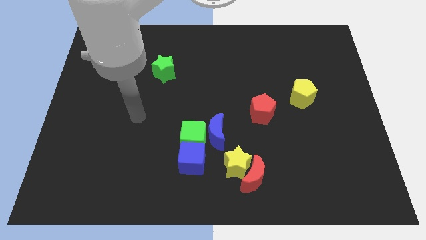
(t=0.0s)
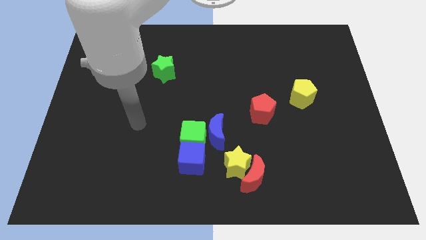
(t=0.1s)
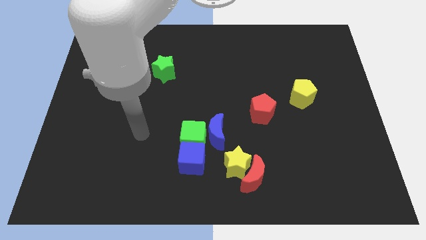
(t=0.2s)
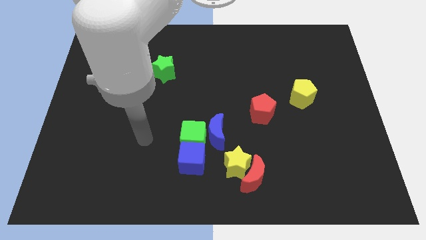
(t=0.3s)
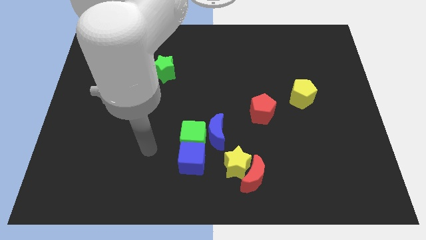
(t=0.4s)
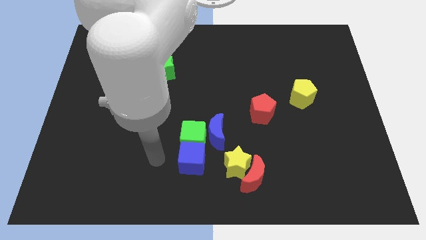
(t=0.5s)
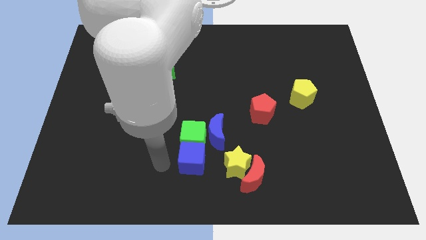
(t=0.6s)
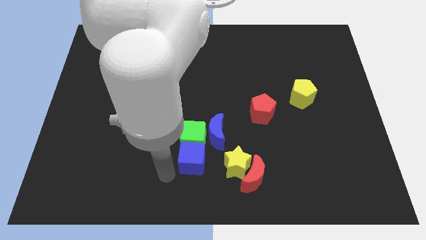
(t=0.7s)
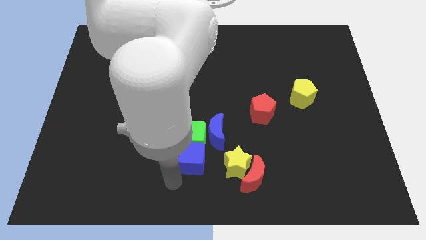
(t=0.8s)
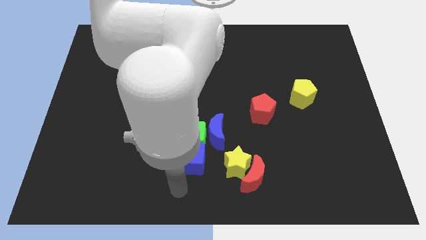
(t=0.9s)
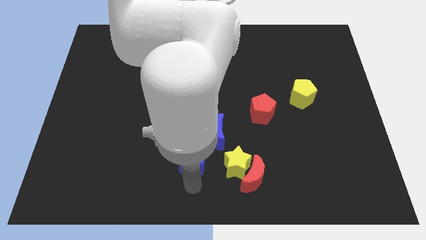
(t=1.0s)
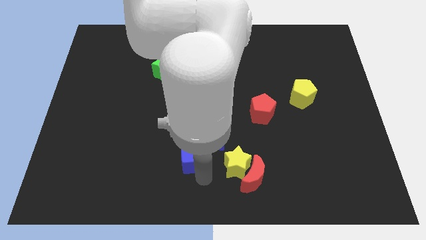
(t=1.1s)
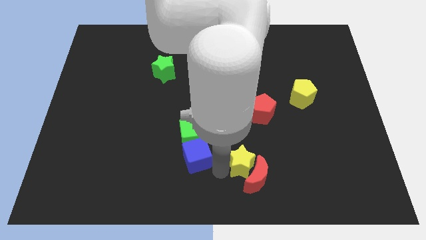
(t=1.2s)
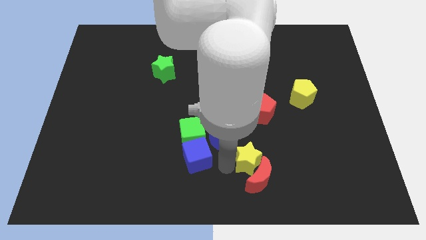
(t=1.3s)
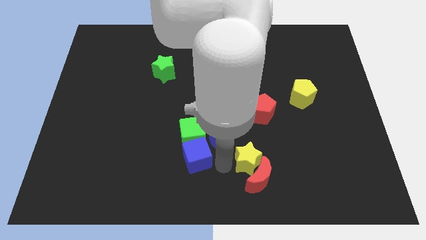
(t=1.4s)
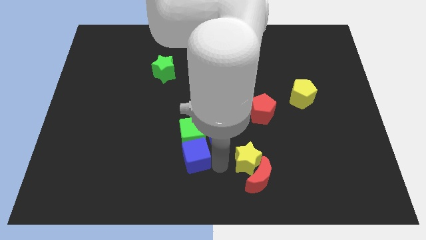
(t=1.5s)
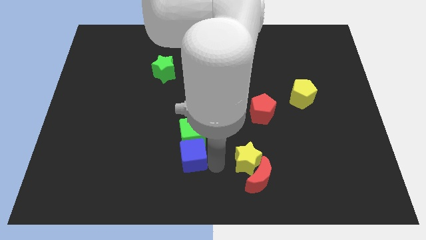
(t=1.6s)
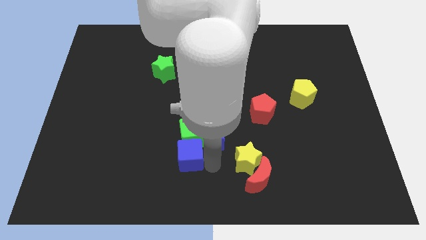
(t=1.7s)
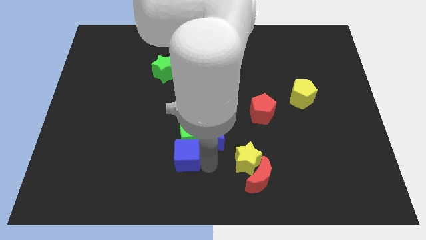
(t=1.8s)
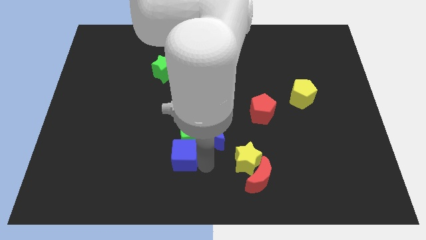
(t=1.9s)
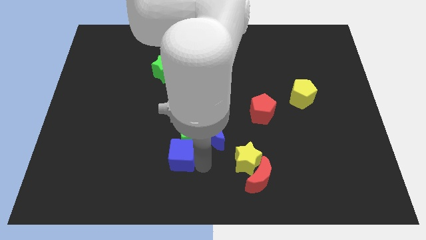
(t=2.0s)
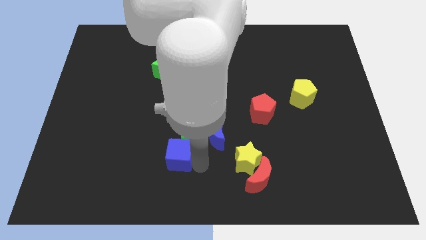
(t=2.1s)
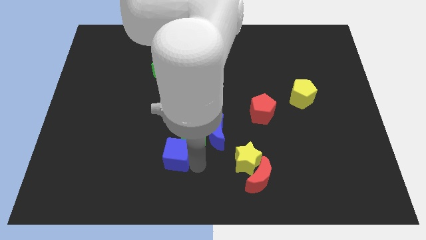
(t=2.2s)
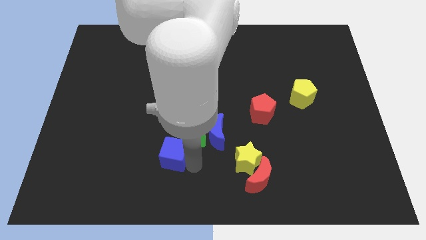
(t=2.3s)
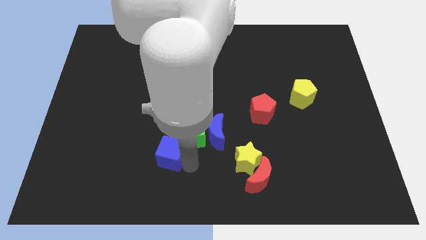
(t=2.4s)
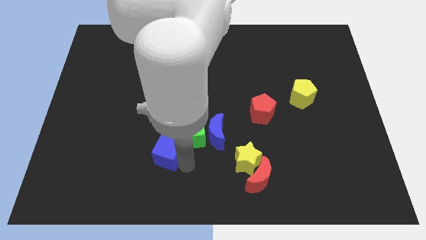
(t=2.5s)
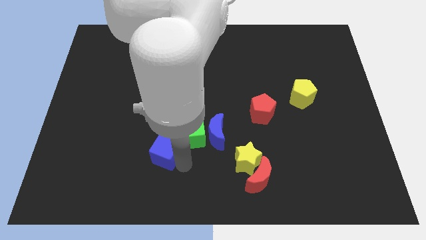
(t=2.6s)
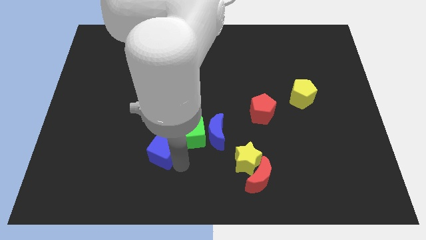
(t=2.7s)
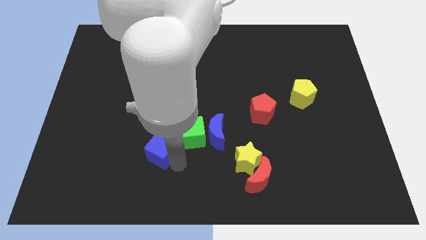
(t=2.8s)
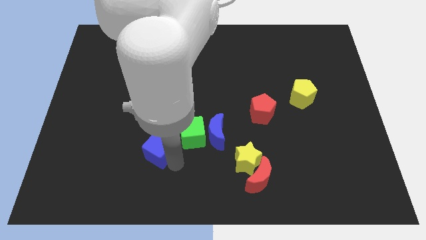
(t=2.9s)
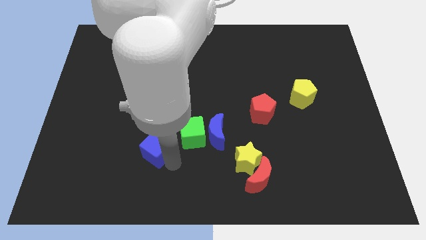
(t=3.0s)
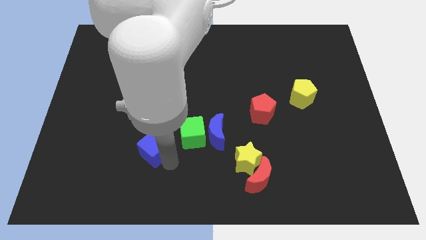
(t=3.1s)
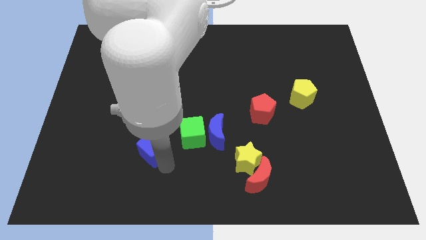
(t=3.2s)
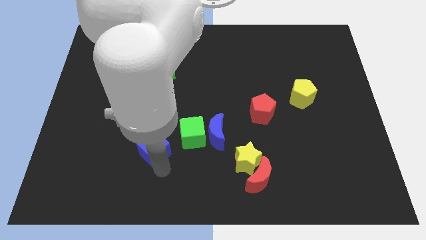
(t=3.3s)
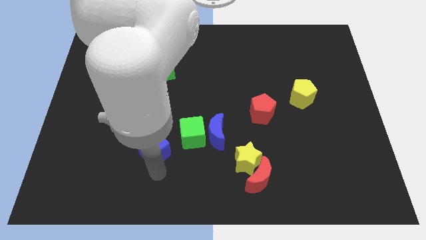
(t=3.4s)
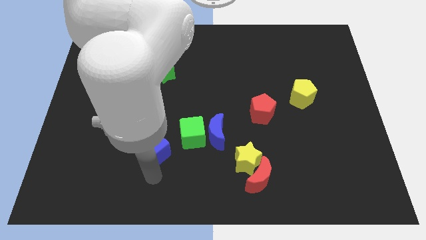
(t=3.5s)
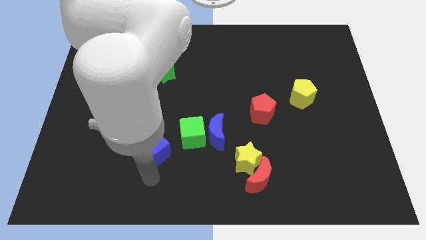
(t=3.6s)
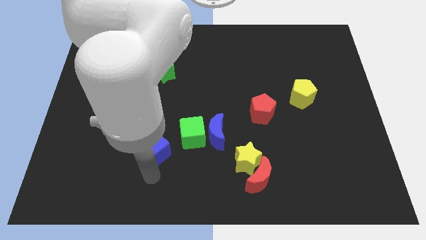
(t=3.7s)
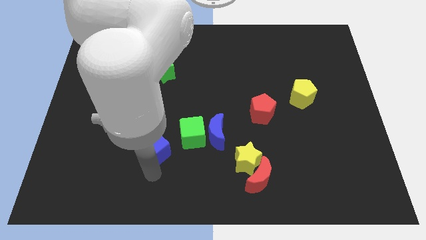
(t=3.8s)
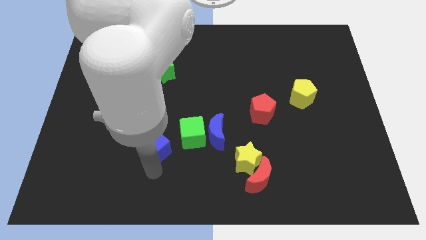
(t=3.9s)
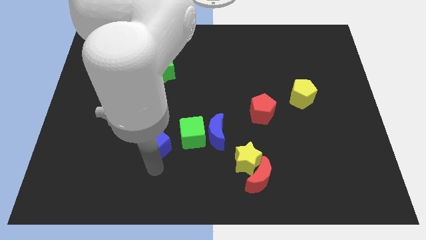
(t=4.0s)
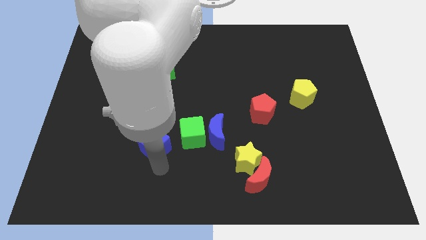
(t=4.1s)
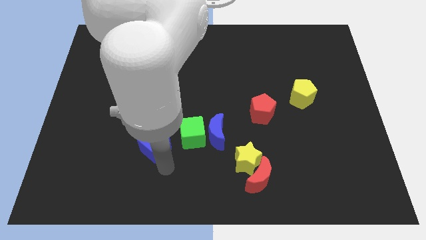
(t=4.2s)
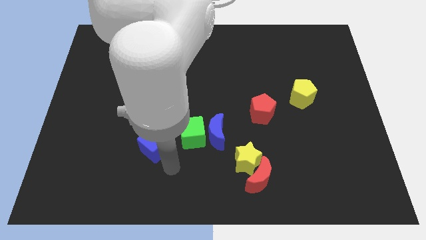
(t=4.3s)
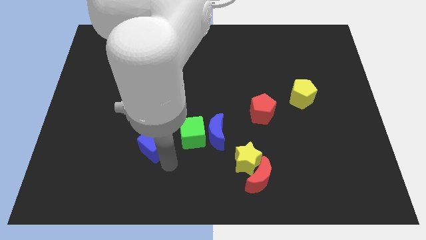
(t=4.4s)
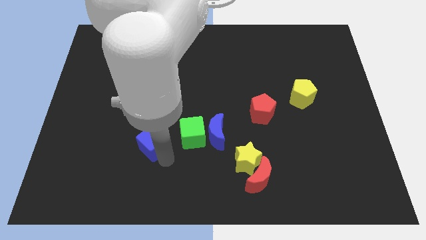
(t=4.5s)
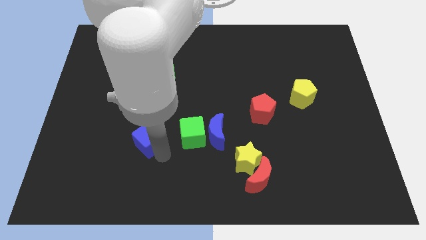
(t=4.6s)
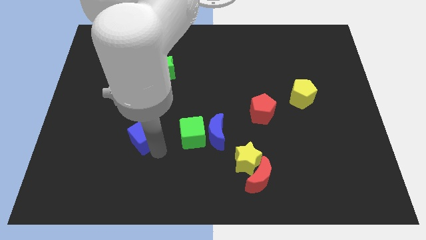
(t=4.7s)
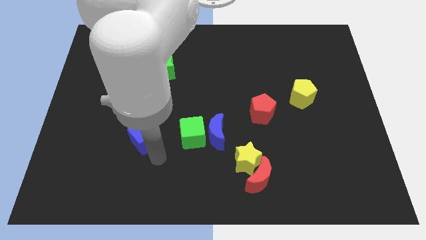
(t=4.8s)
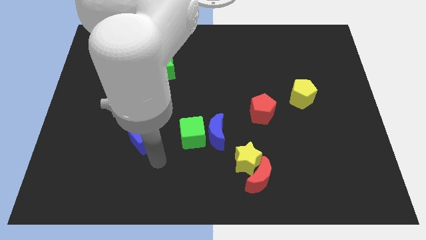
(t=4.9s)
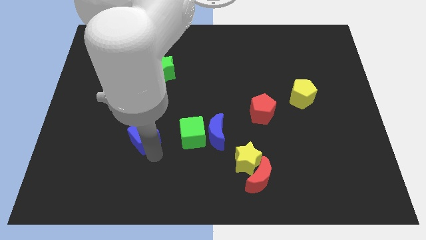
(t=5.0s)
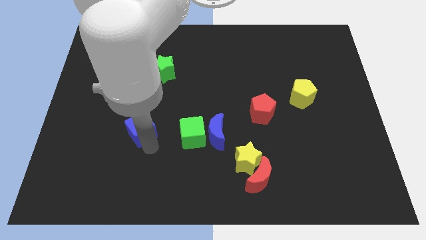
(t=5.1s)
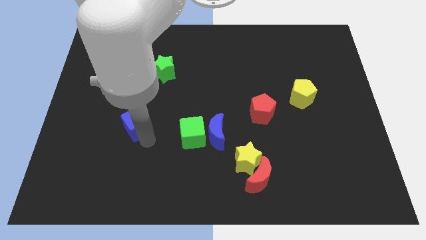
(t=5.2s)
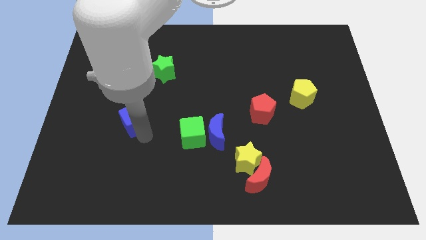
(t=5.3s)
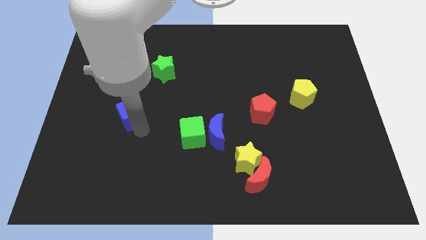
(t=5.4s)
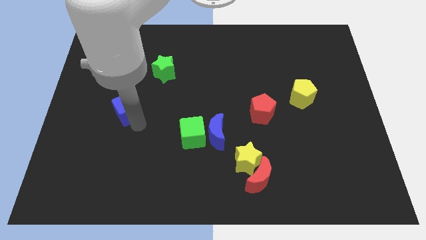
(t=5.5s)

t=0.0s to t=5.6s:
move the blue cube diagonally up and left

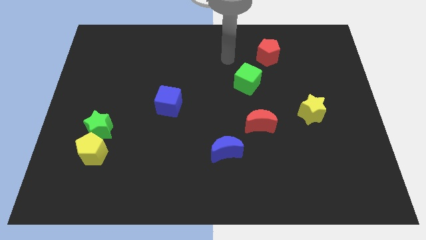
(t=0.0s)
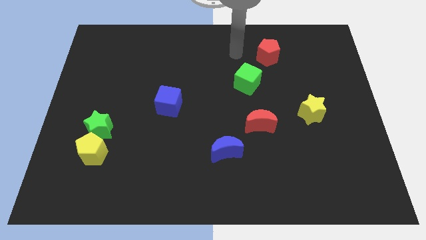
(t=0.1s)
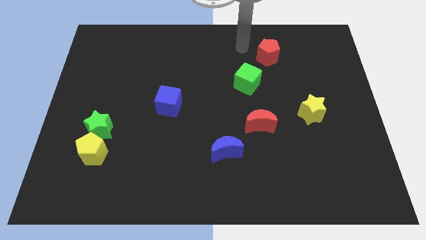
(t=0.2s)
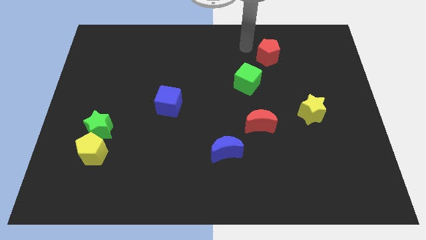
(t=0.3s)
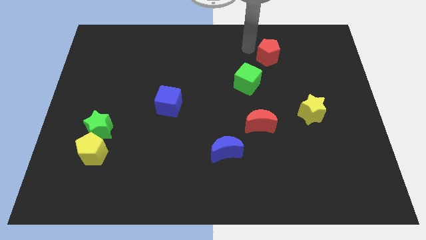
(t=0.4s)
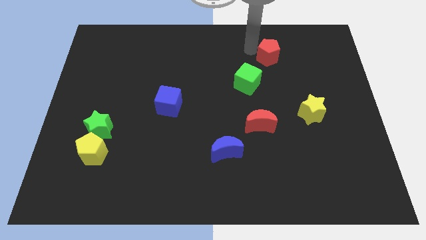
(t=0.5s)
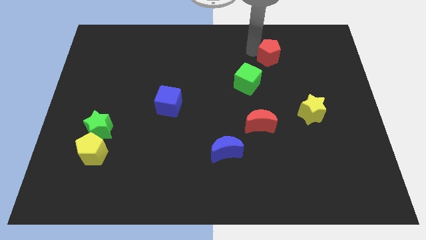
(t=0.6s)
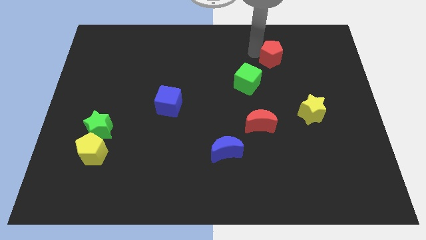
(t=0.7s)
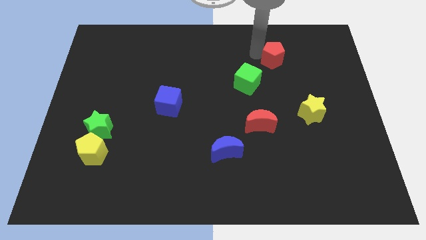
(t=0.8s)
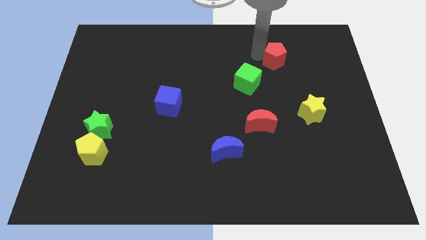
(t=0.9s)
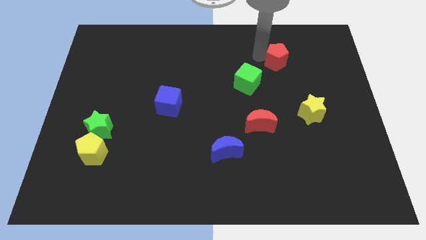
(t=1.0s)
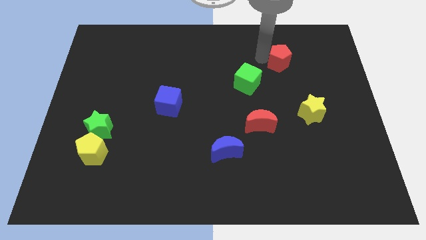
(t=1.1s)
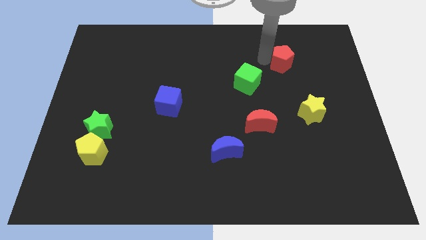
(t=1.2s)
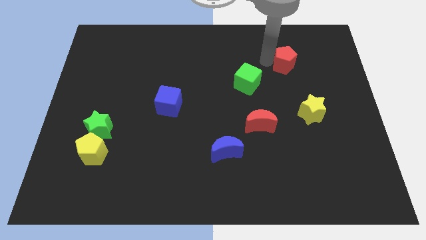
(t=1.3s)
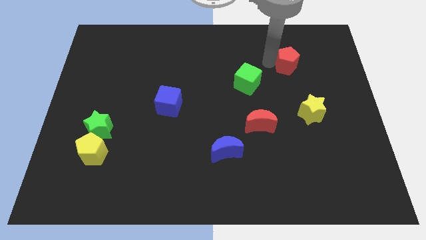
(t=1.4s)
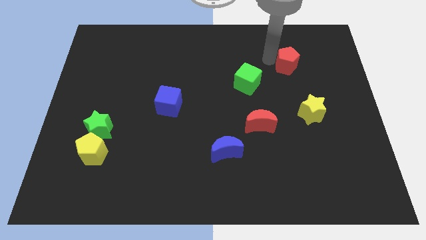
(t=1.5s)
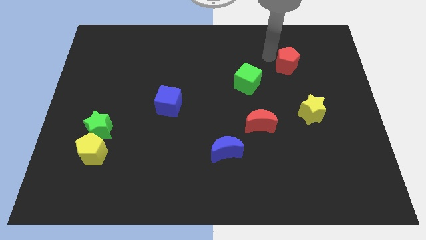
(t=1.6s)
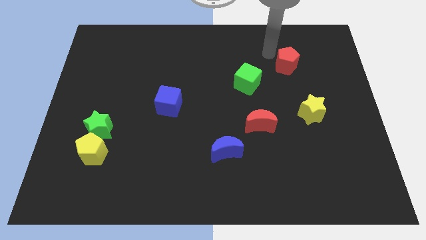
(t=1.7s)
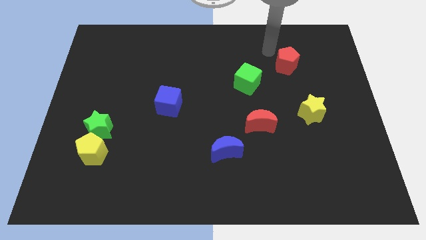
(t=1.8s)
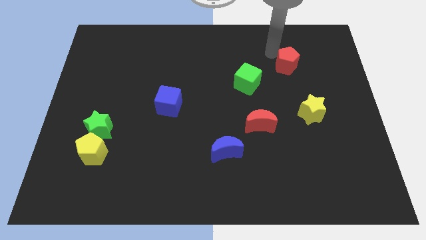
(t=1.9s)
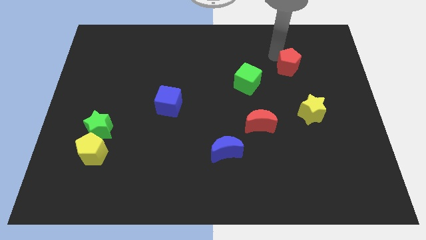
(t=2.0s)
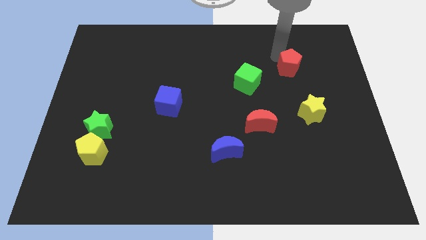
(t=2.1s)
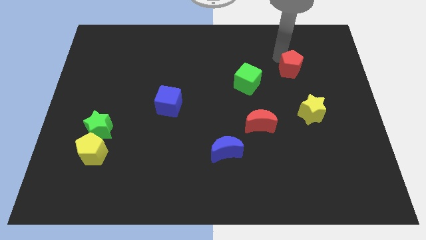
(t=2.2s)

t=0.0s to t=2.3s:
slightly slide the red pentagon diagonally downwards and right

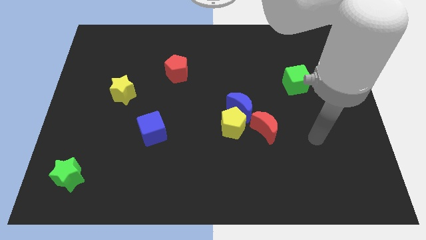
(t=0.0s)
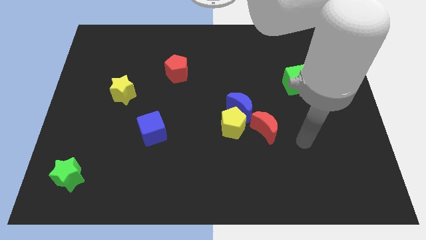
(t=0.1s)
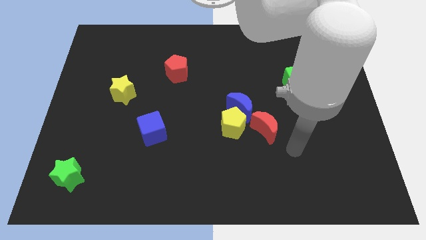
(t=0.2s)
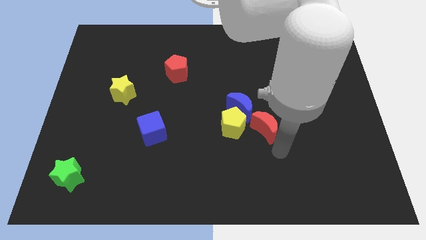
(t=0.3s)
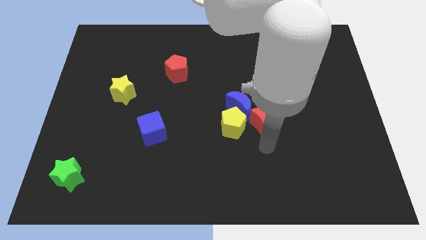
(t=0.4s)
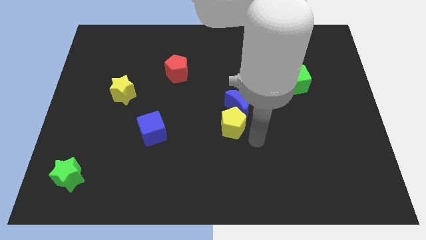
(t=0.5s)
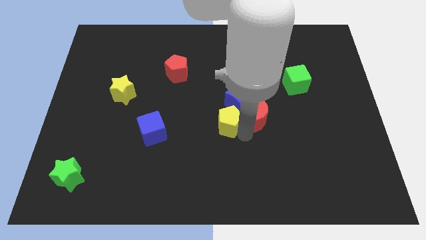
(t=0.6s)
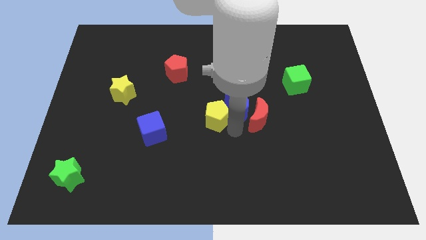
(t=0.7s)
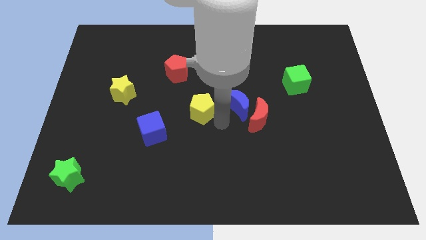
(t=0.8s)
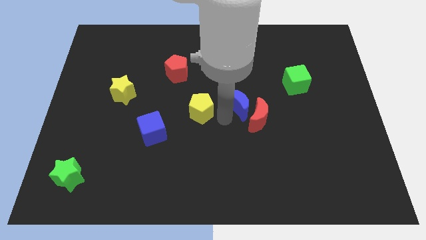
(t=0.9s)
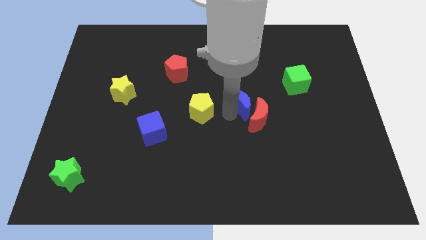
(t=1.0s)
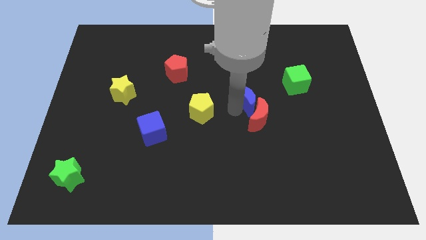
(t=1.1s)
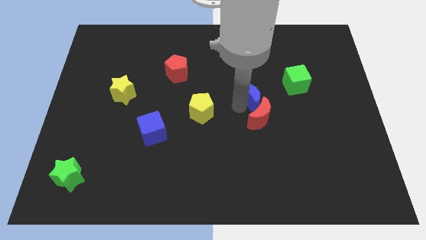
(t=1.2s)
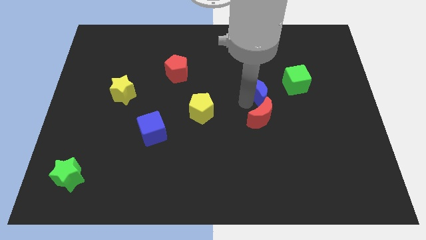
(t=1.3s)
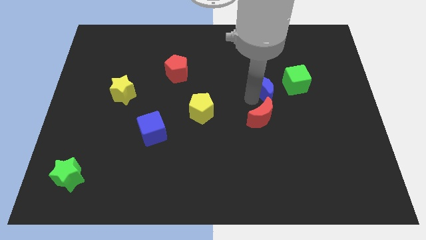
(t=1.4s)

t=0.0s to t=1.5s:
move the blue moon diagonally upwards and right a bit
